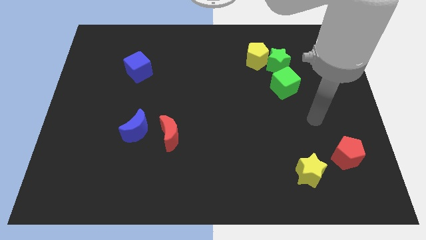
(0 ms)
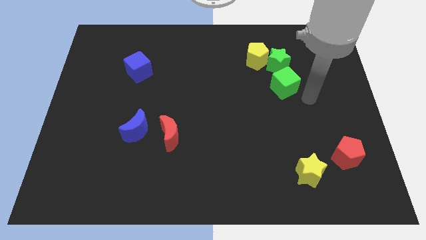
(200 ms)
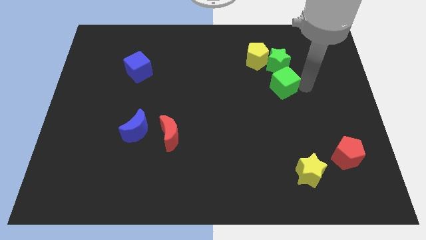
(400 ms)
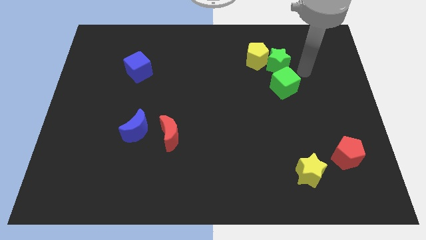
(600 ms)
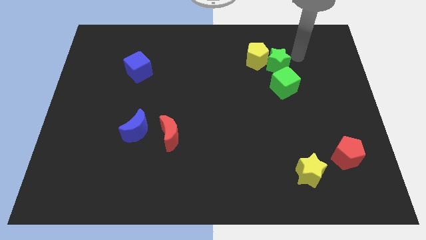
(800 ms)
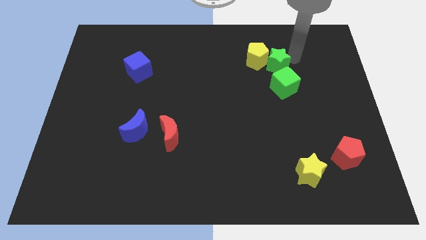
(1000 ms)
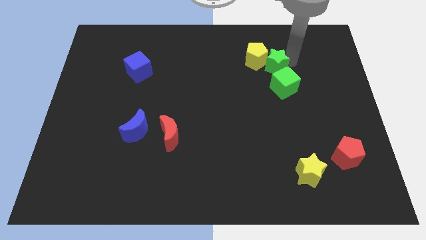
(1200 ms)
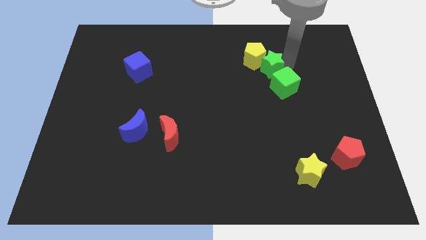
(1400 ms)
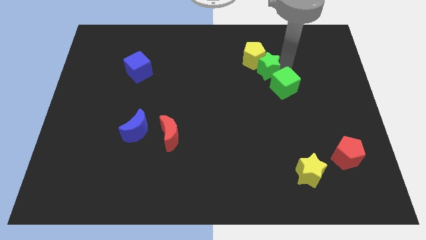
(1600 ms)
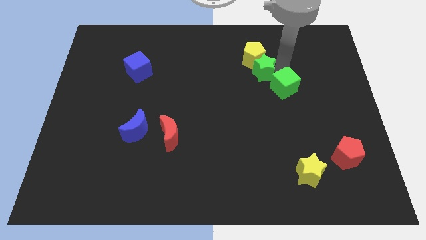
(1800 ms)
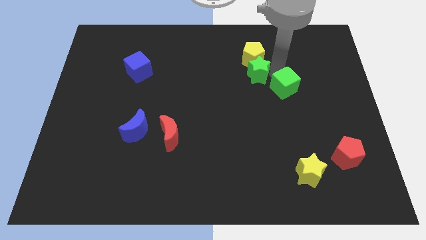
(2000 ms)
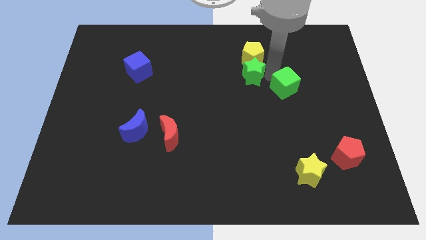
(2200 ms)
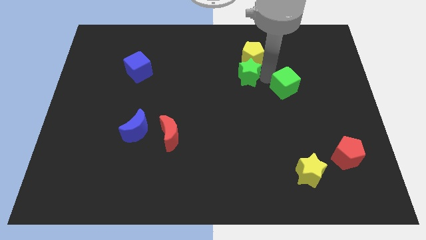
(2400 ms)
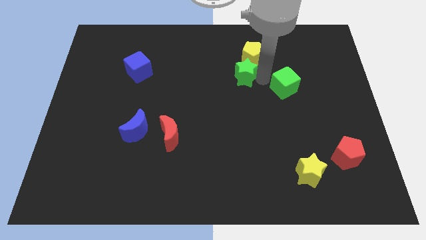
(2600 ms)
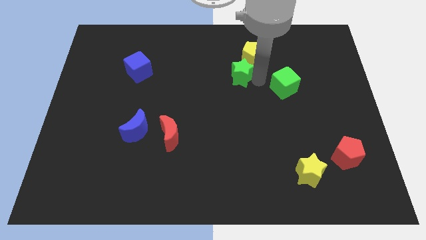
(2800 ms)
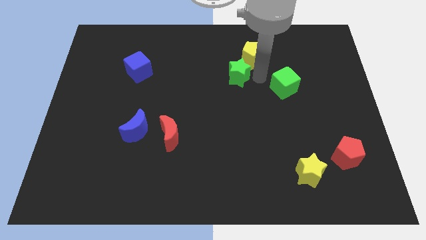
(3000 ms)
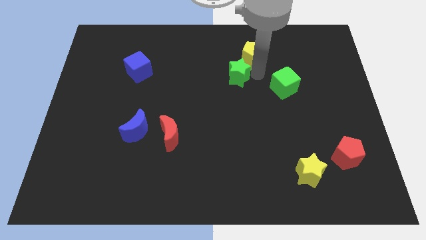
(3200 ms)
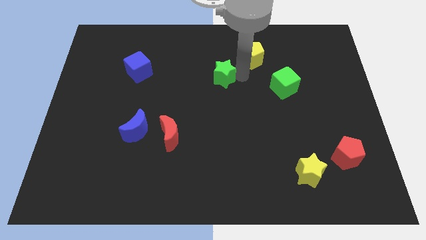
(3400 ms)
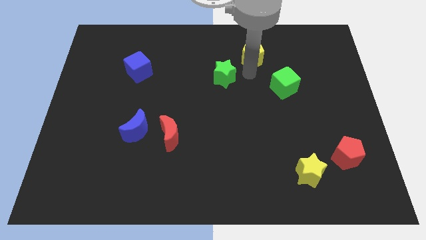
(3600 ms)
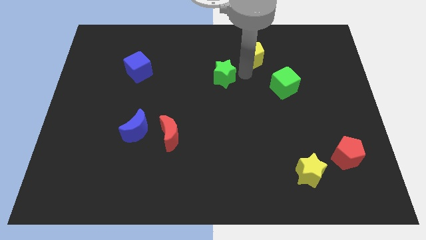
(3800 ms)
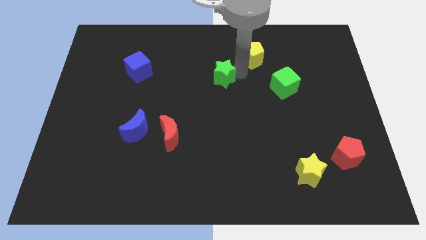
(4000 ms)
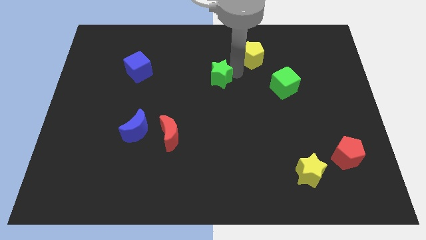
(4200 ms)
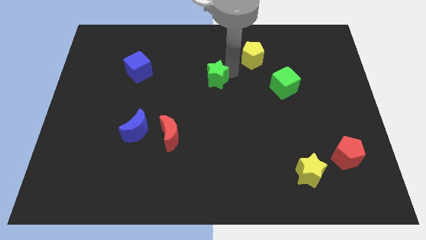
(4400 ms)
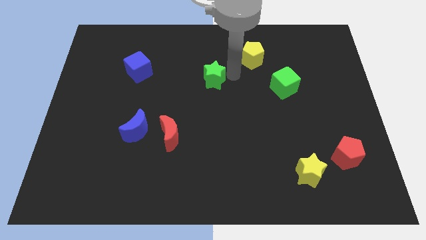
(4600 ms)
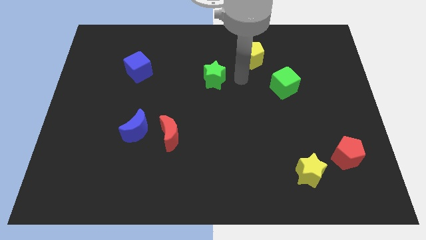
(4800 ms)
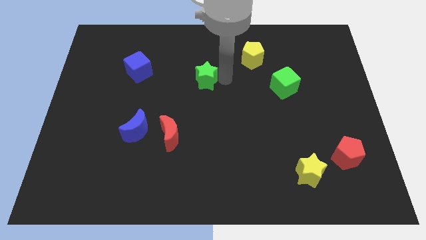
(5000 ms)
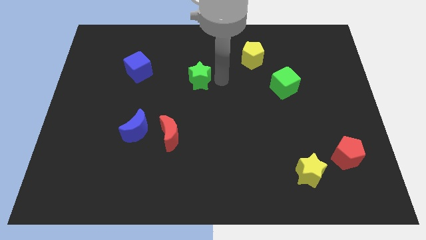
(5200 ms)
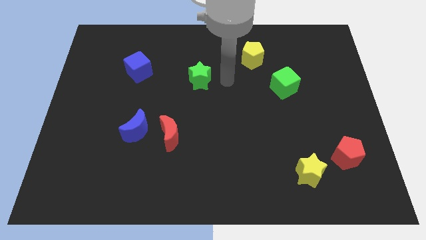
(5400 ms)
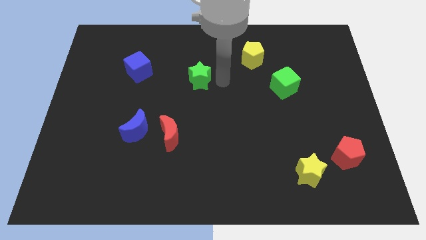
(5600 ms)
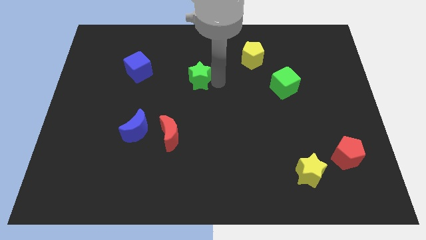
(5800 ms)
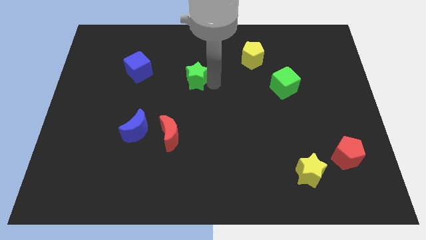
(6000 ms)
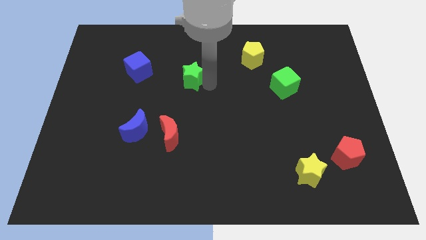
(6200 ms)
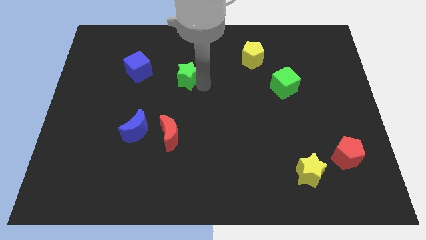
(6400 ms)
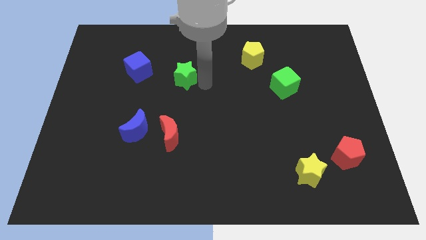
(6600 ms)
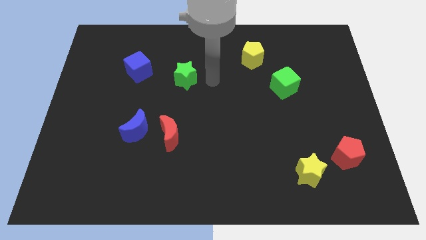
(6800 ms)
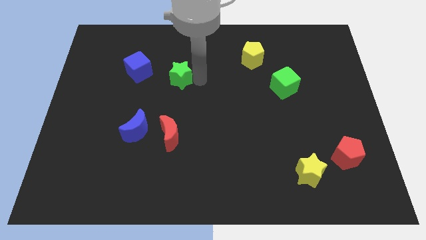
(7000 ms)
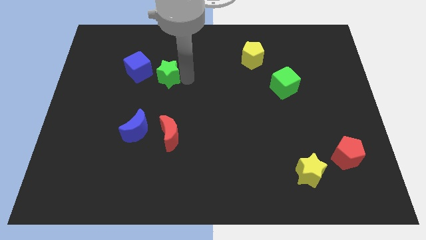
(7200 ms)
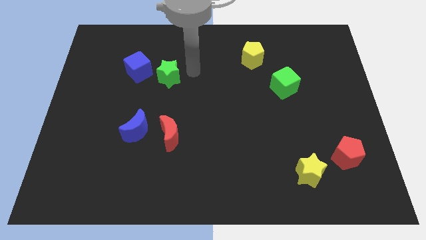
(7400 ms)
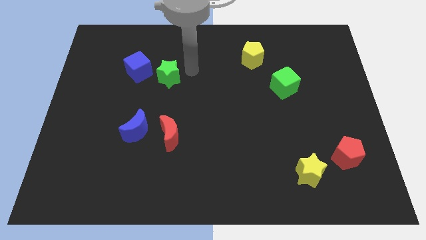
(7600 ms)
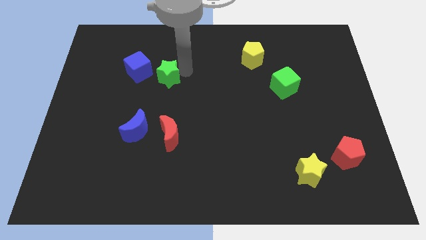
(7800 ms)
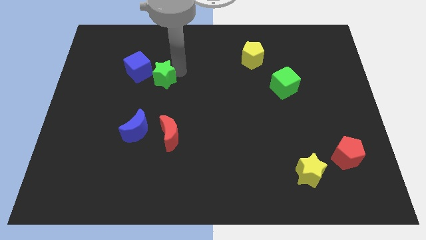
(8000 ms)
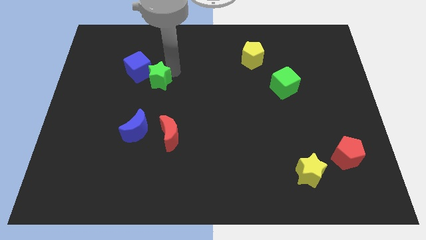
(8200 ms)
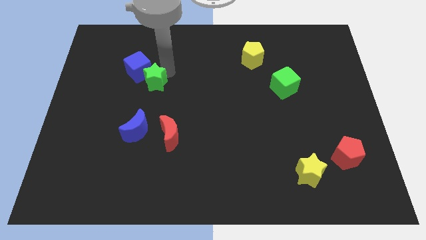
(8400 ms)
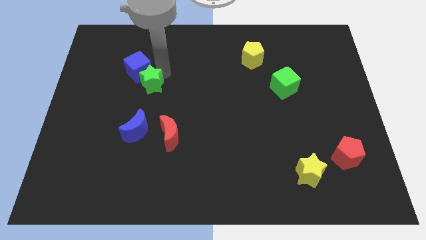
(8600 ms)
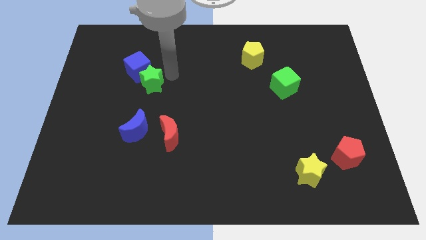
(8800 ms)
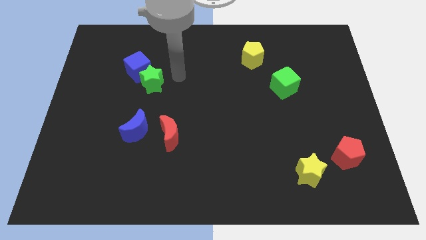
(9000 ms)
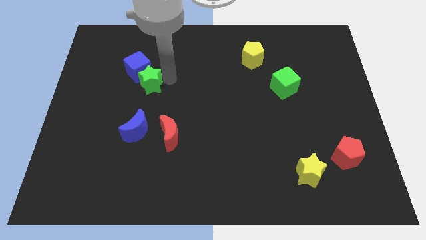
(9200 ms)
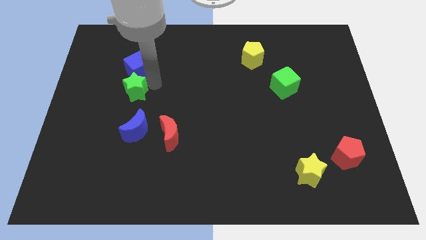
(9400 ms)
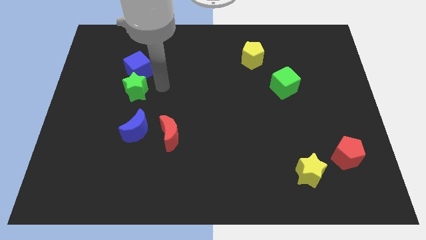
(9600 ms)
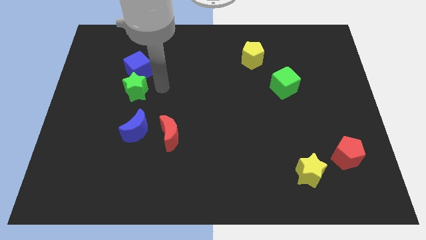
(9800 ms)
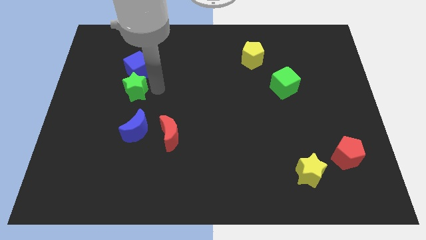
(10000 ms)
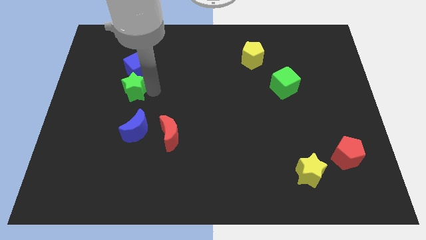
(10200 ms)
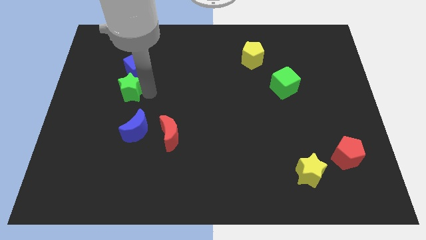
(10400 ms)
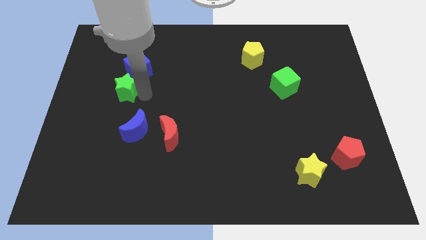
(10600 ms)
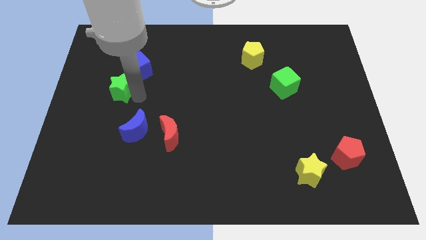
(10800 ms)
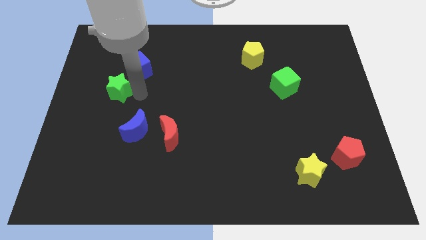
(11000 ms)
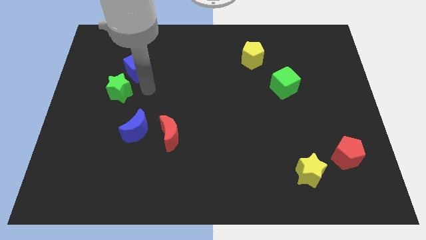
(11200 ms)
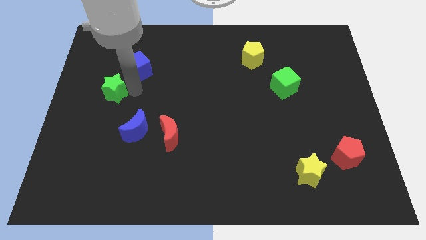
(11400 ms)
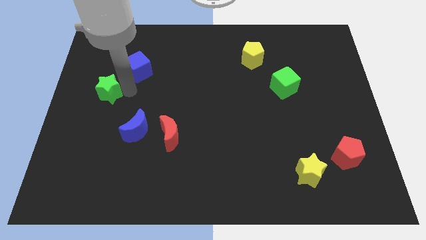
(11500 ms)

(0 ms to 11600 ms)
slide the green star to the left side

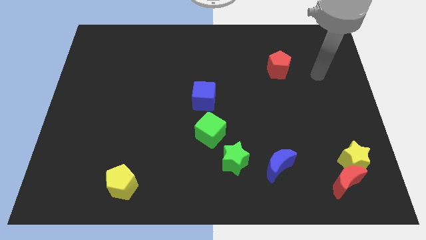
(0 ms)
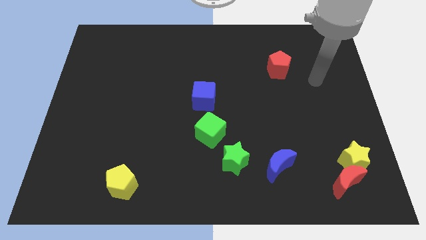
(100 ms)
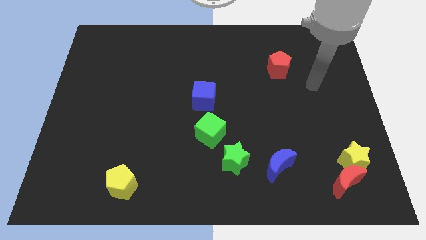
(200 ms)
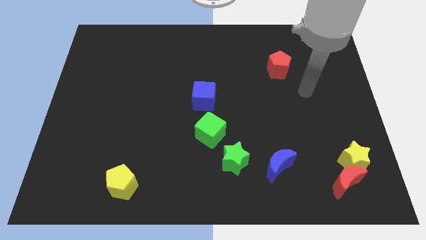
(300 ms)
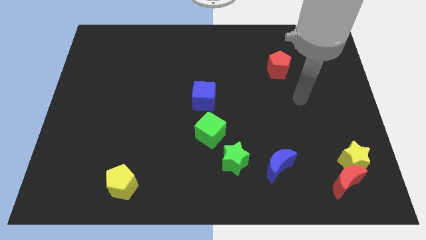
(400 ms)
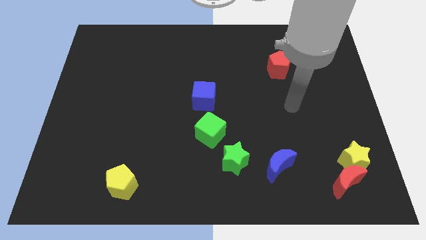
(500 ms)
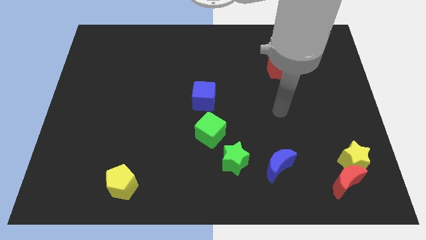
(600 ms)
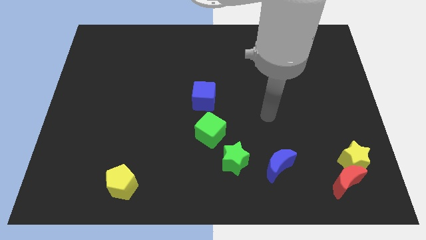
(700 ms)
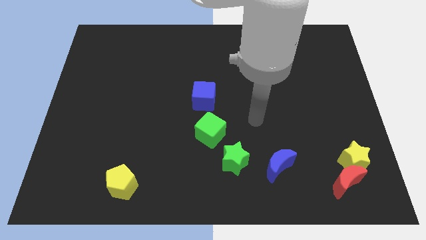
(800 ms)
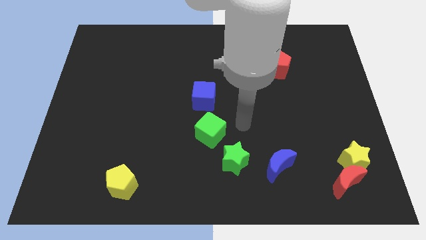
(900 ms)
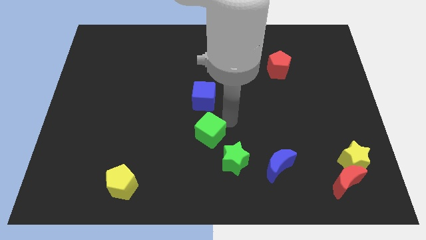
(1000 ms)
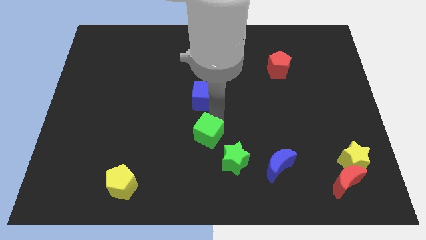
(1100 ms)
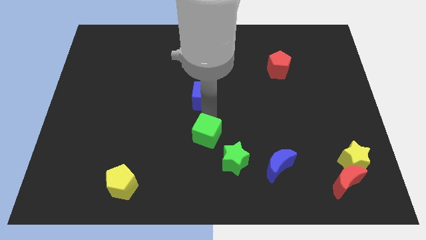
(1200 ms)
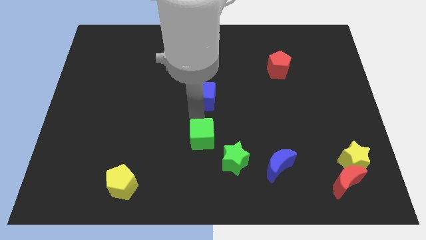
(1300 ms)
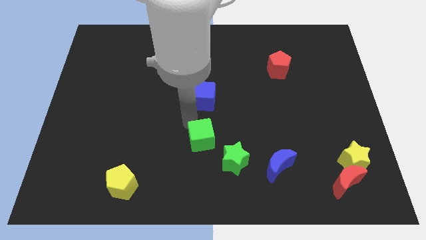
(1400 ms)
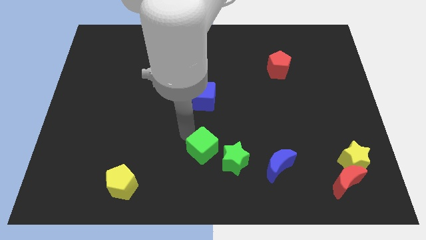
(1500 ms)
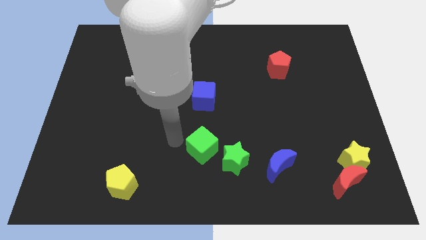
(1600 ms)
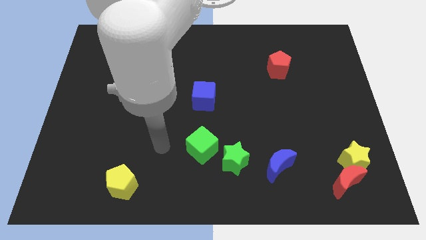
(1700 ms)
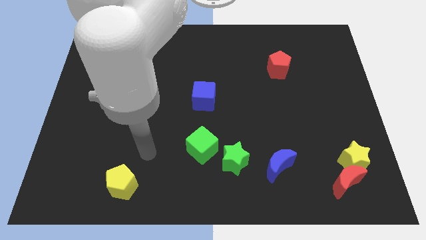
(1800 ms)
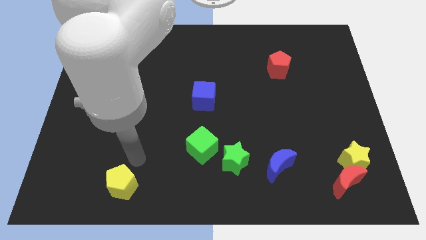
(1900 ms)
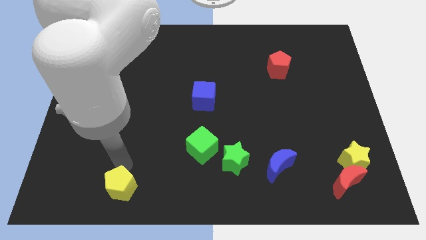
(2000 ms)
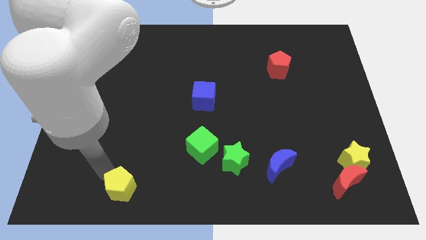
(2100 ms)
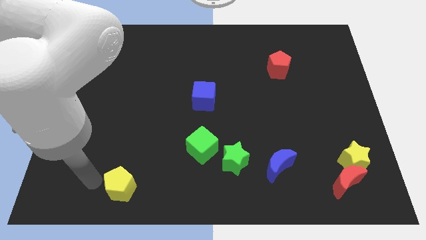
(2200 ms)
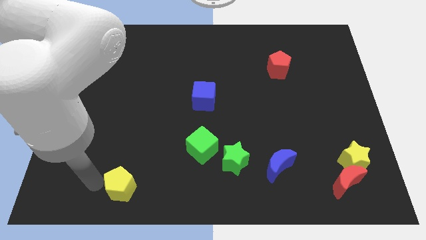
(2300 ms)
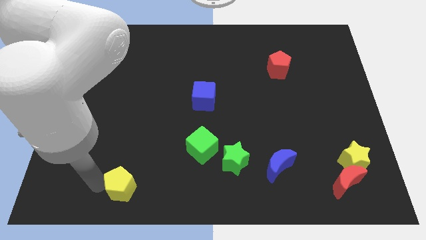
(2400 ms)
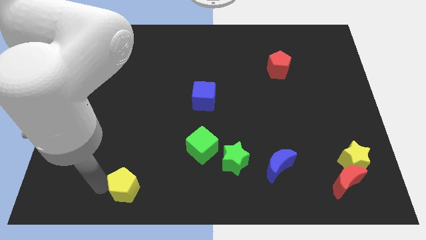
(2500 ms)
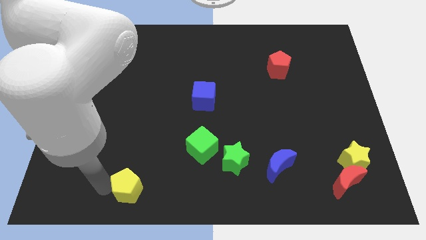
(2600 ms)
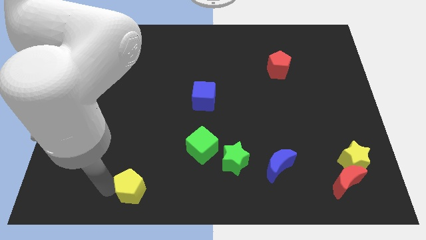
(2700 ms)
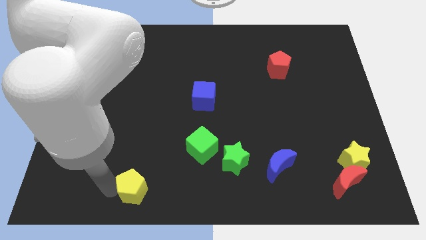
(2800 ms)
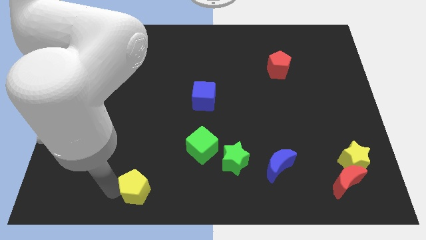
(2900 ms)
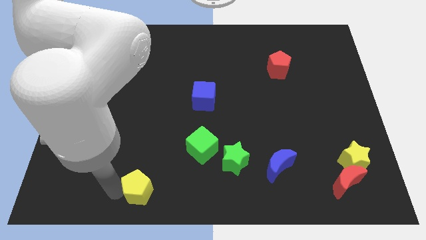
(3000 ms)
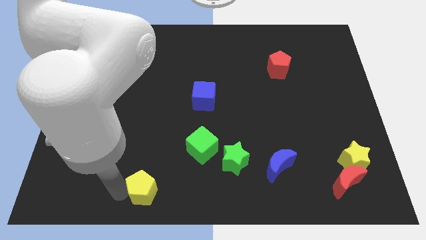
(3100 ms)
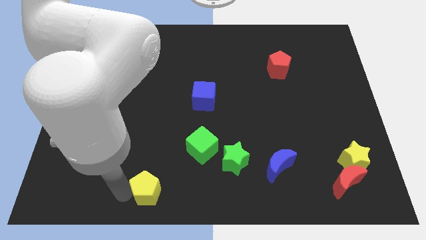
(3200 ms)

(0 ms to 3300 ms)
move the yellow pentagon to the bottom side
